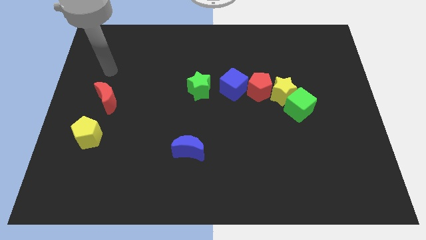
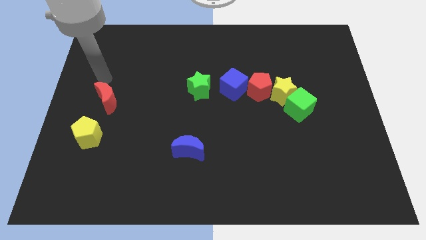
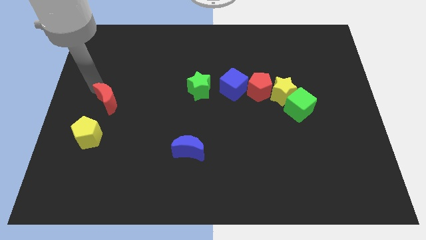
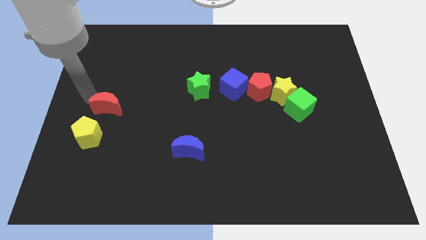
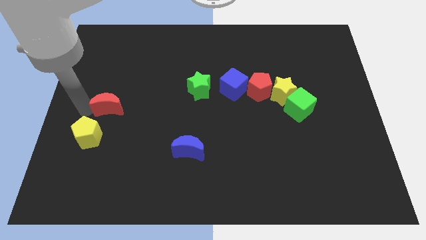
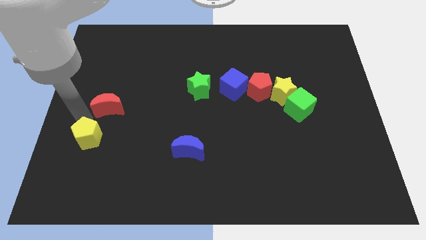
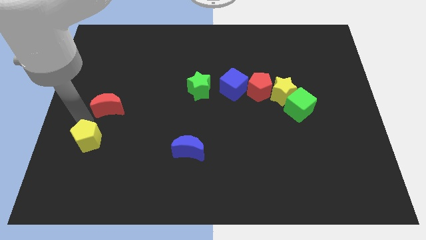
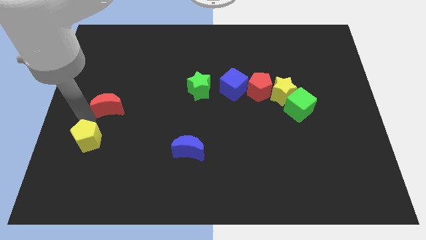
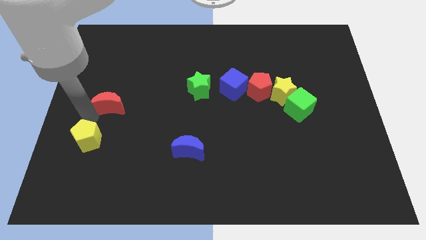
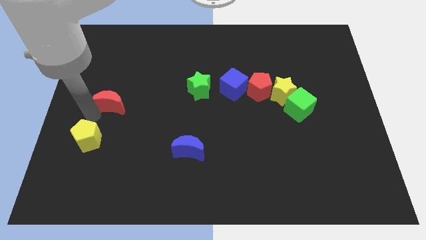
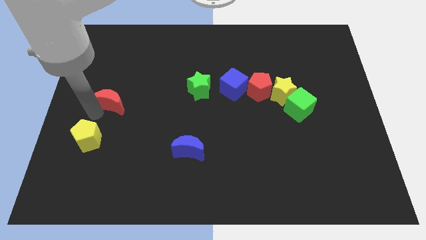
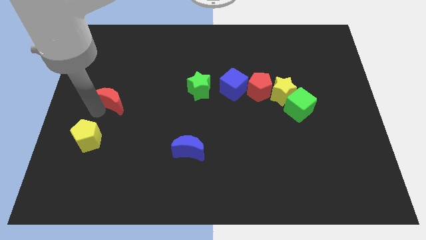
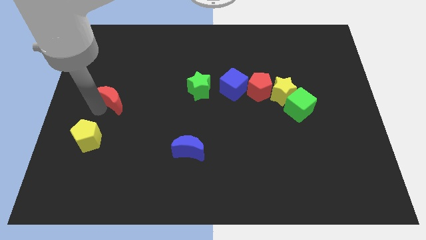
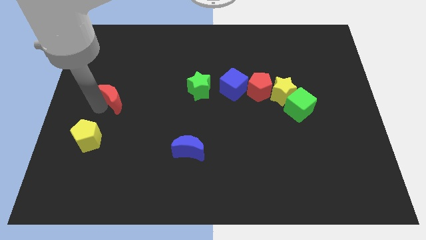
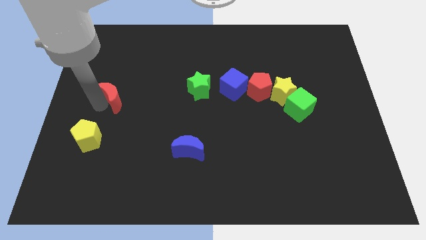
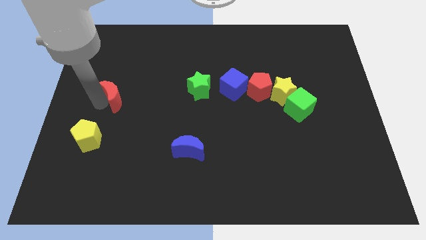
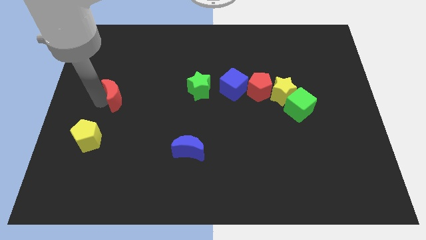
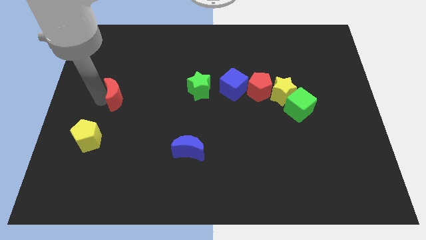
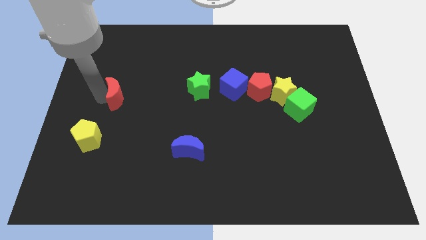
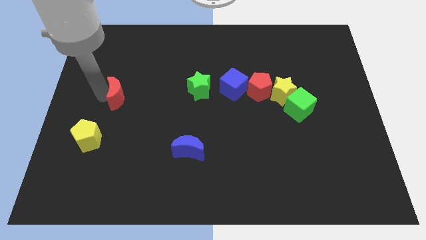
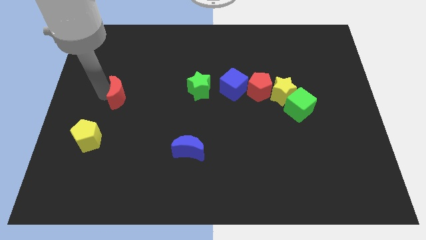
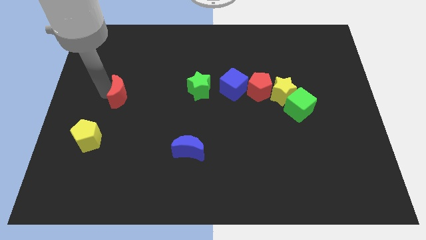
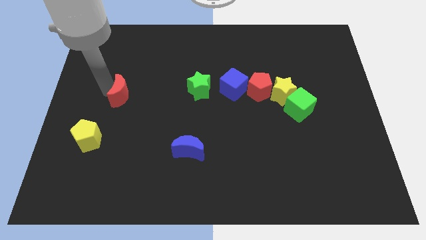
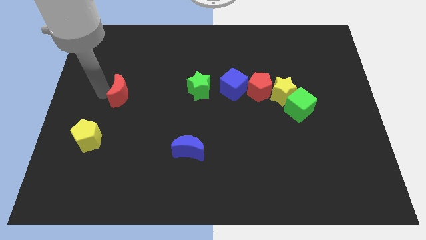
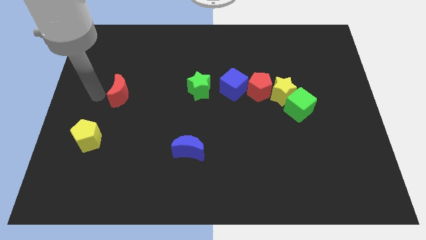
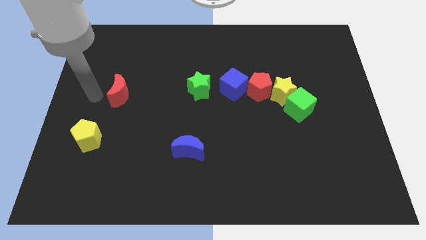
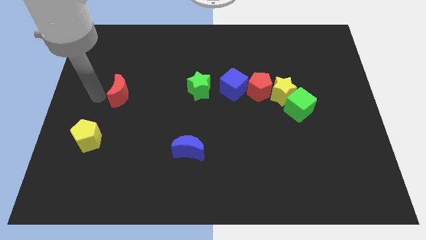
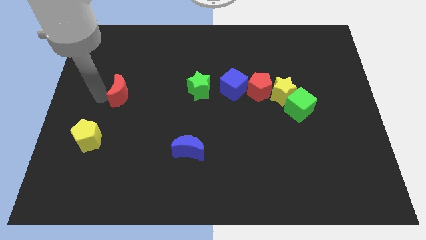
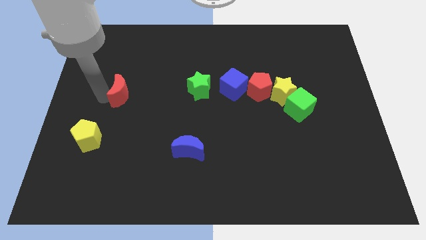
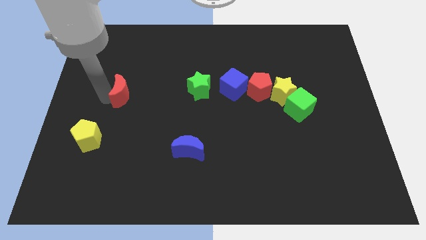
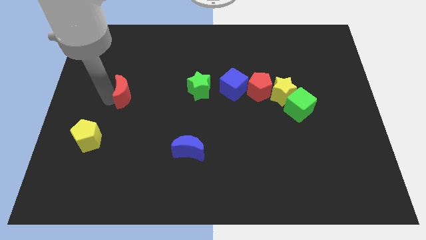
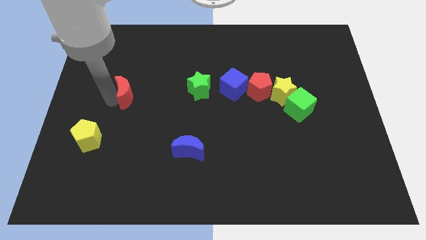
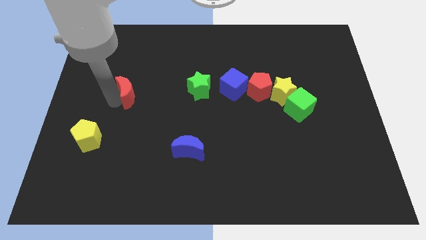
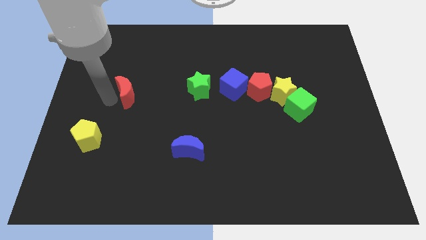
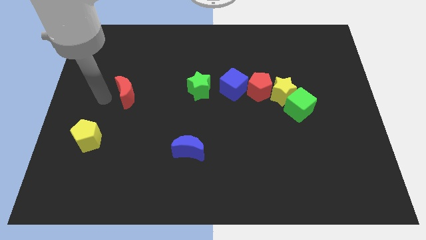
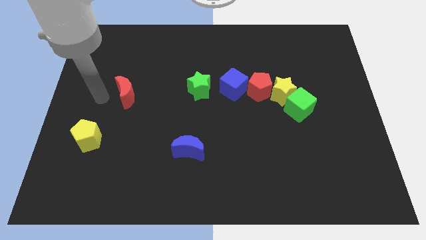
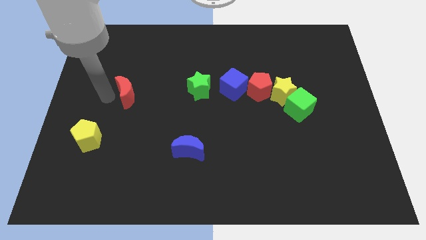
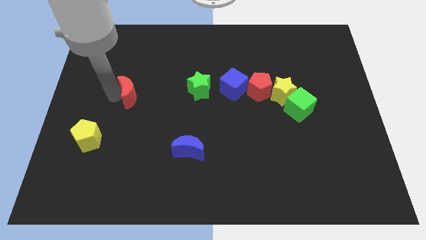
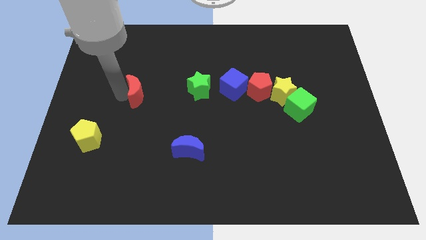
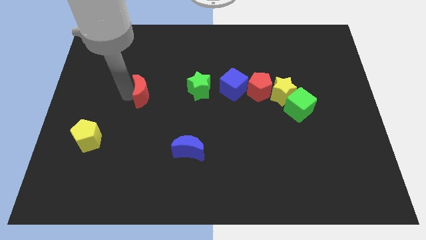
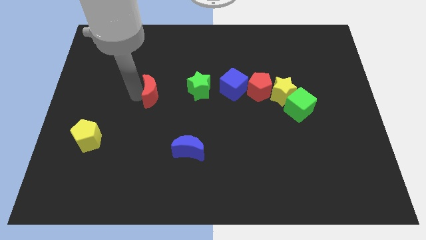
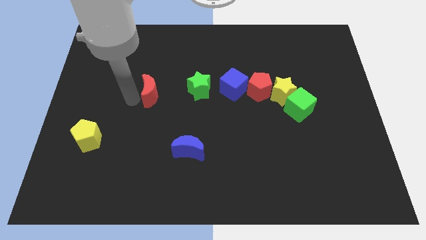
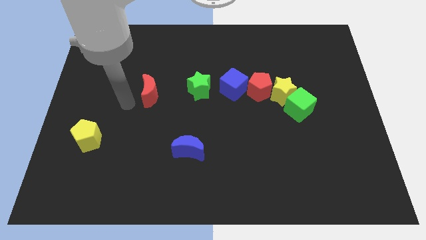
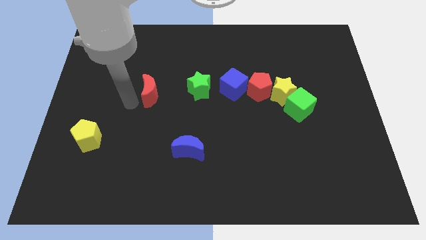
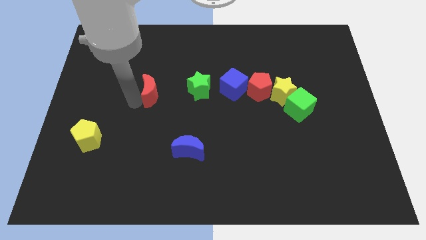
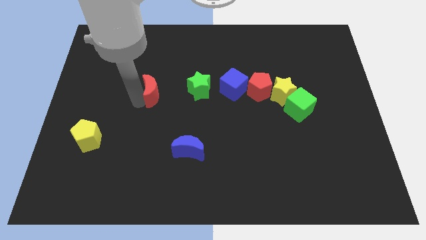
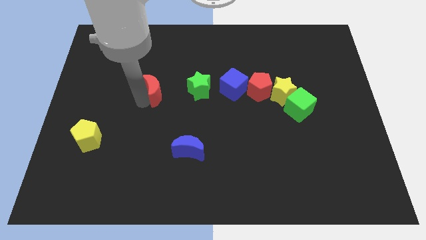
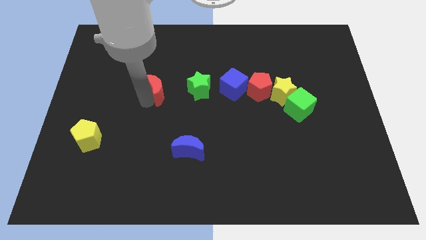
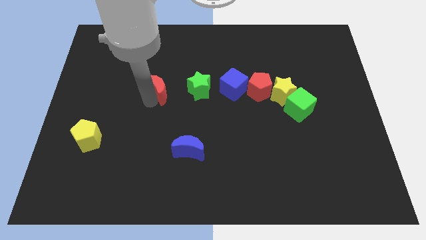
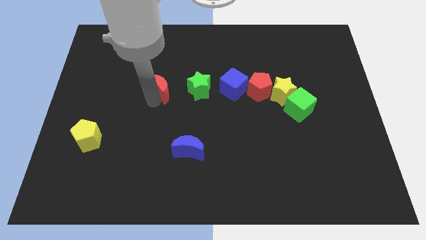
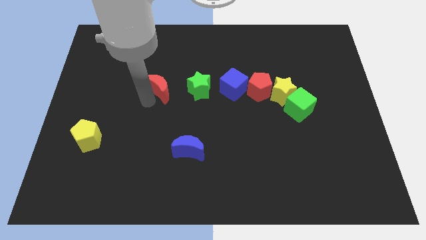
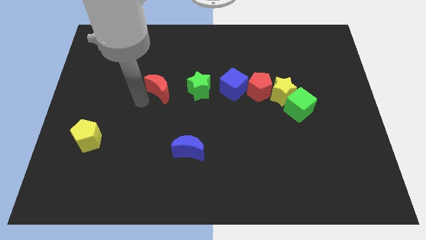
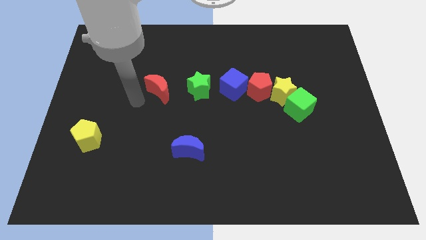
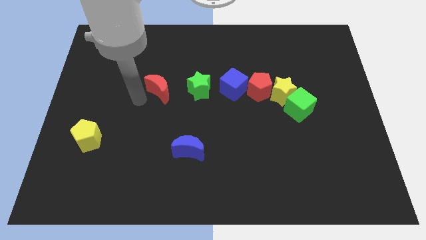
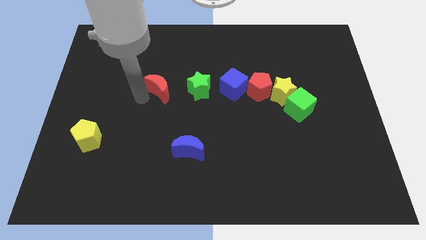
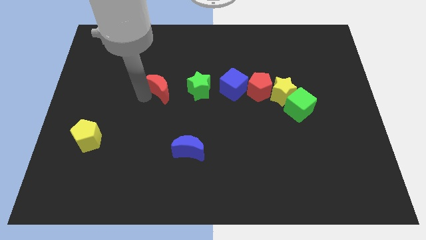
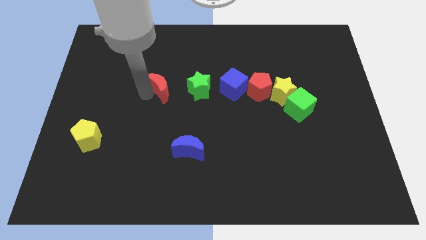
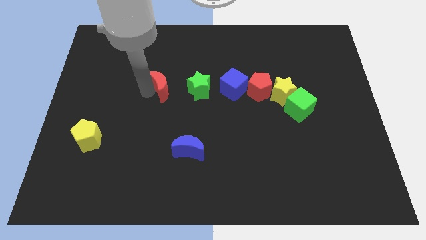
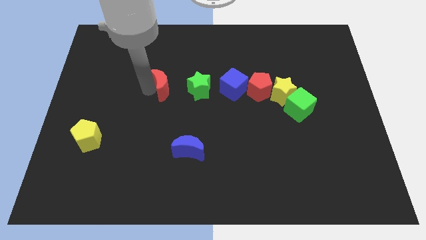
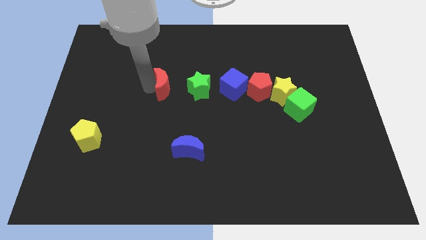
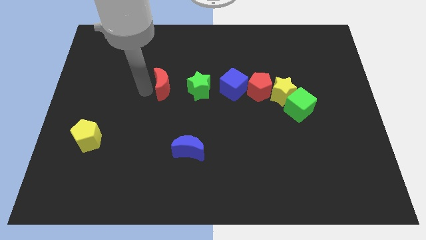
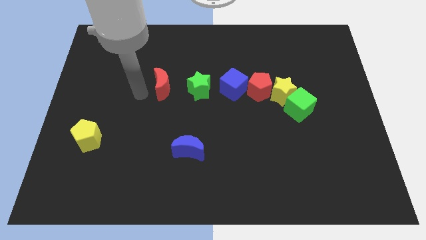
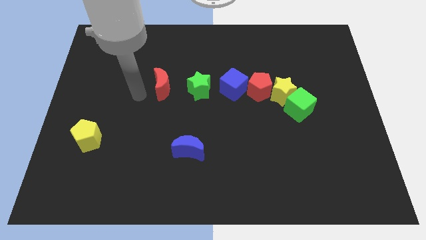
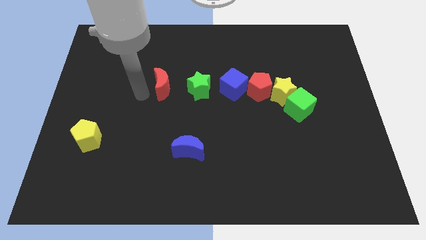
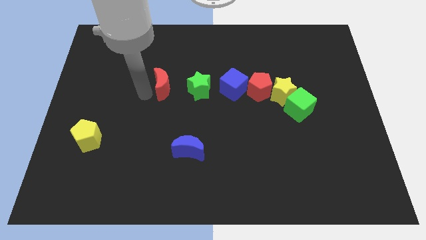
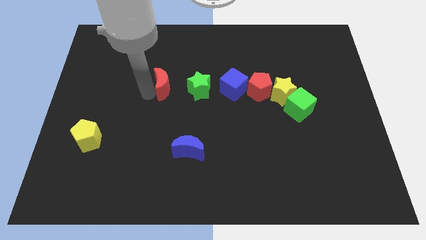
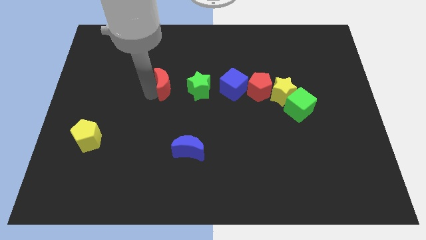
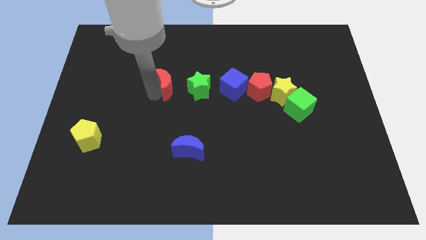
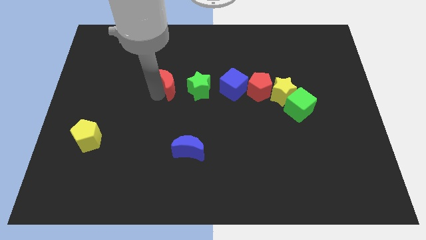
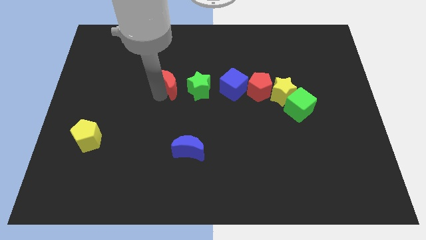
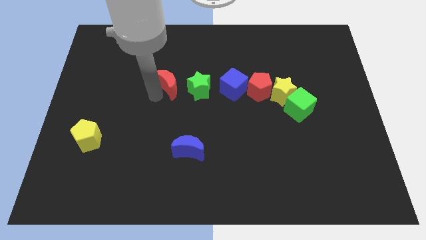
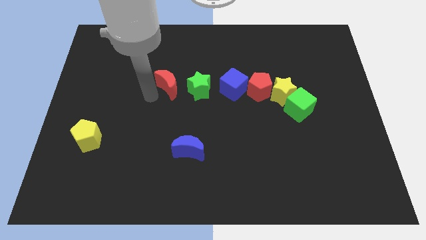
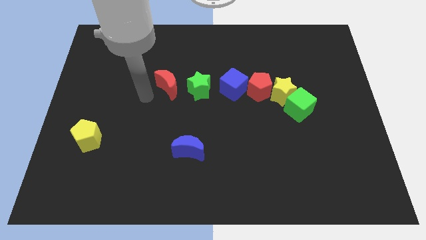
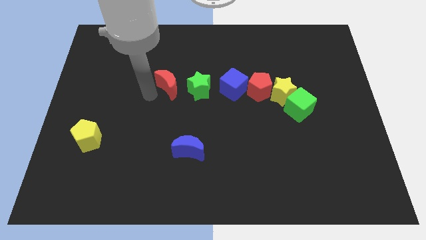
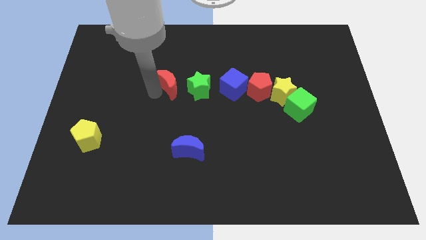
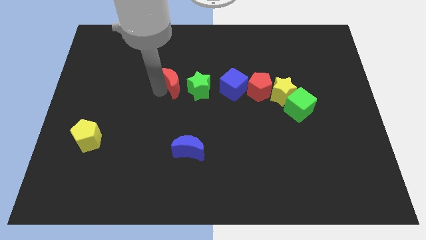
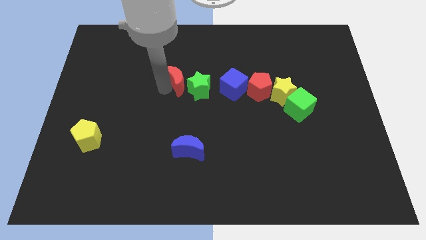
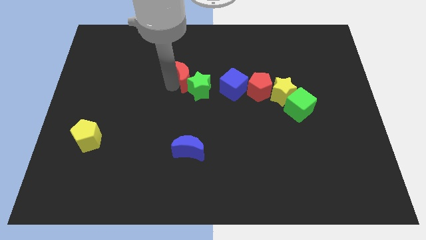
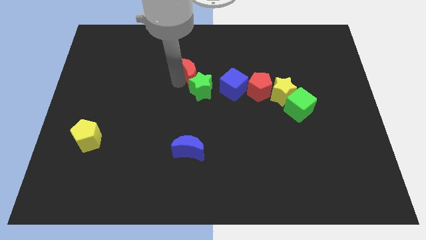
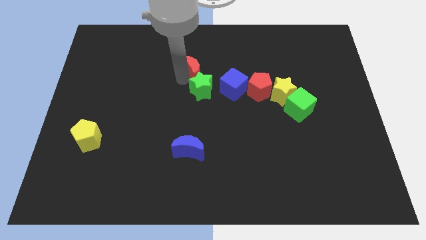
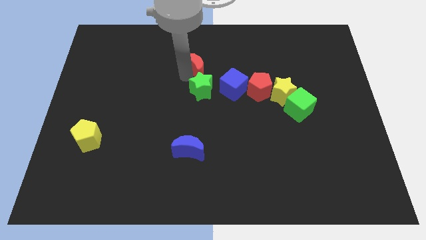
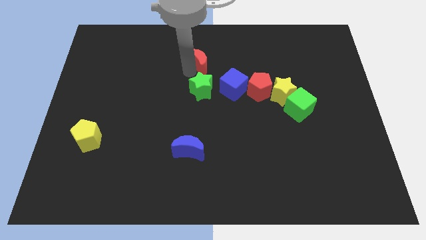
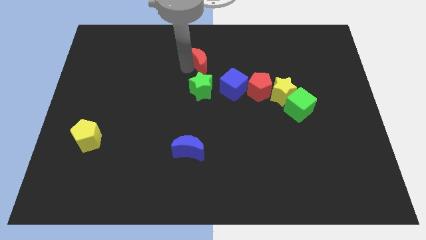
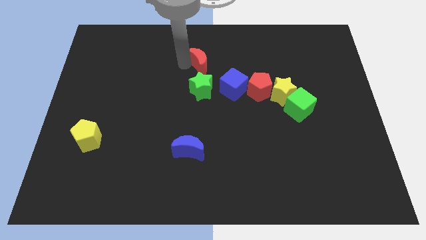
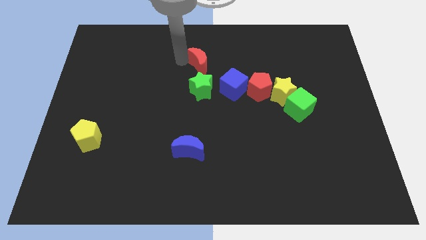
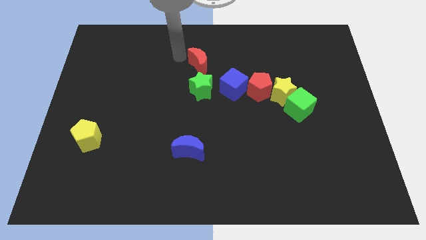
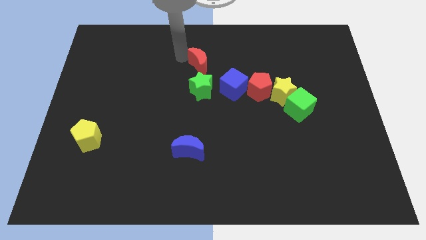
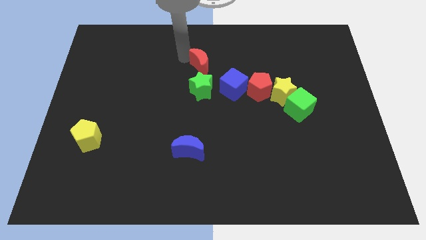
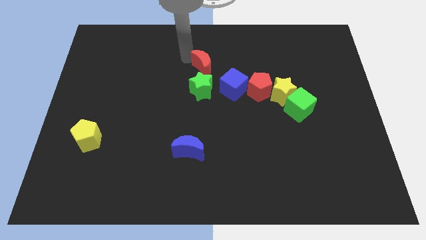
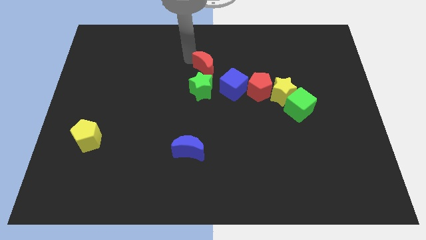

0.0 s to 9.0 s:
slide the red moon diagonally up and to the right of the green star
